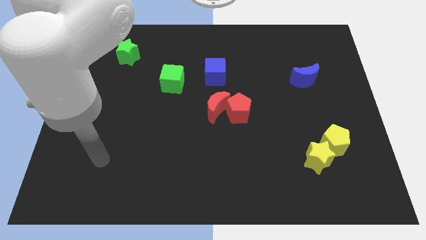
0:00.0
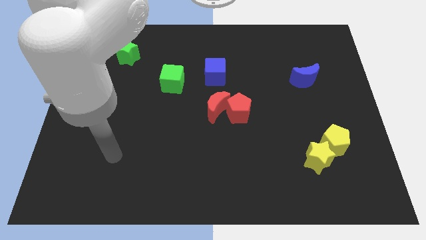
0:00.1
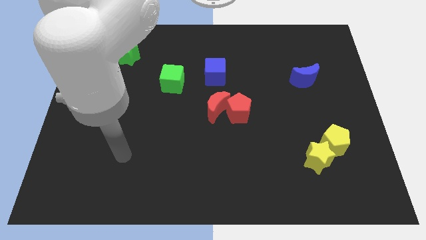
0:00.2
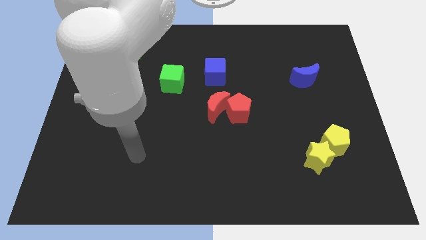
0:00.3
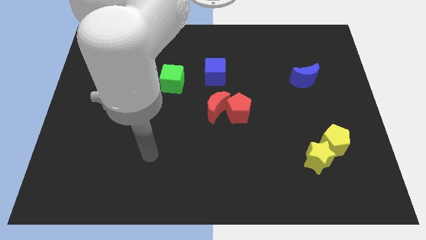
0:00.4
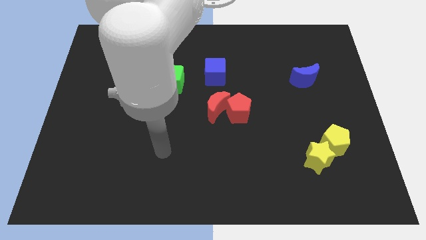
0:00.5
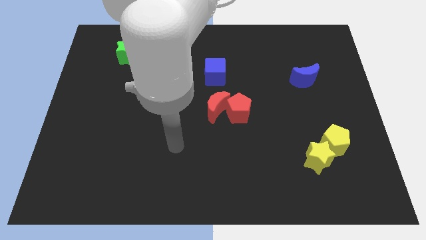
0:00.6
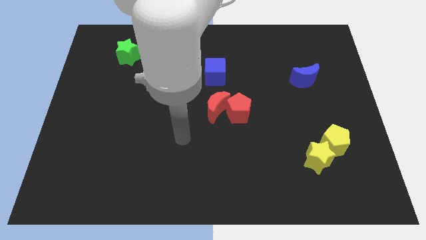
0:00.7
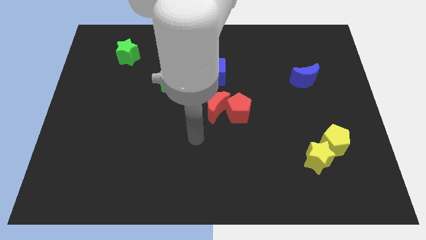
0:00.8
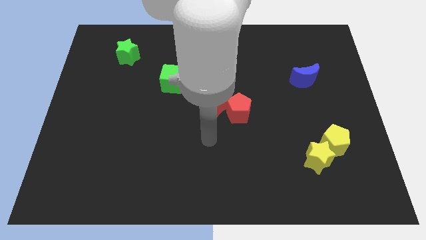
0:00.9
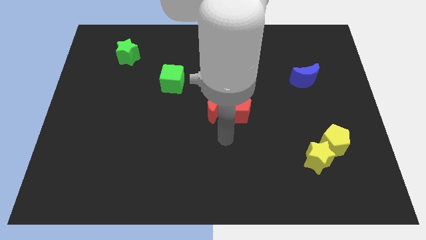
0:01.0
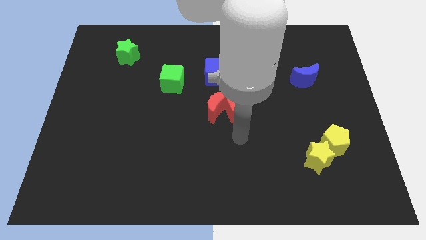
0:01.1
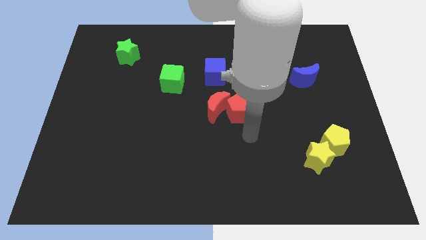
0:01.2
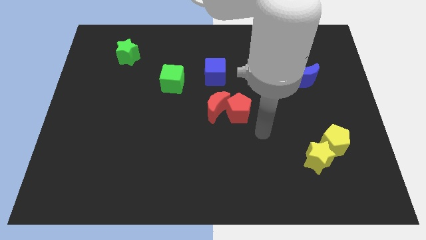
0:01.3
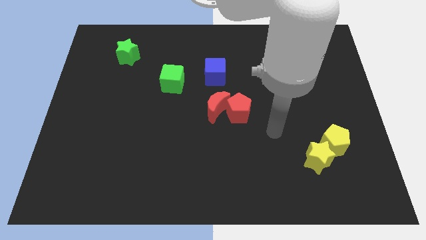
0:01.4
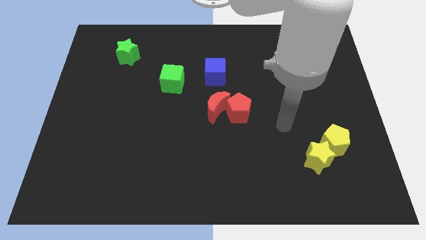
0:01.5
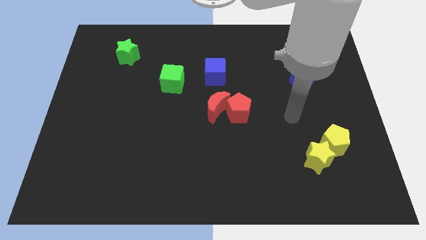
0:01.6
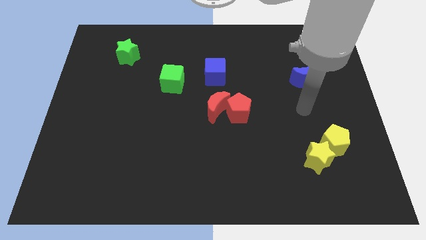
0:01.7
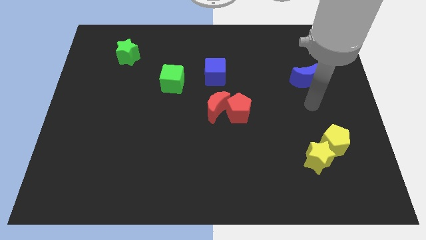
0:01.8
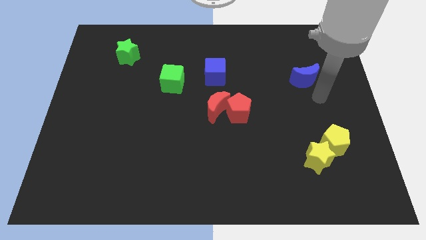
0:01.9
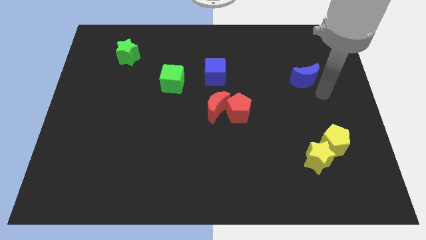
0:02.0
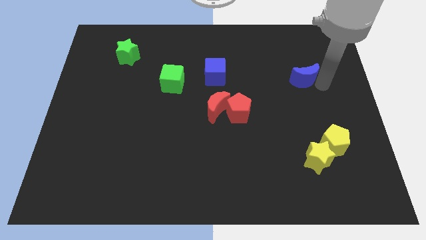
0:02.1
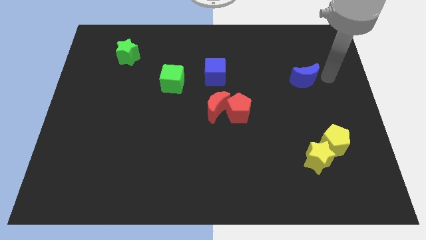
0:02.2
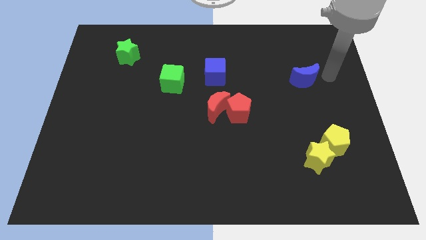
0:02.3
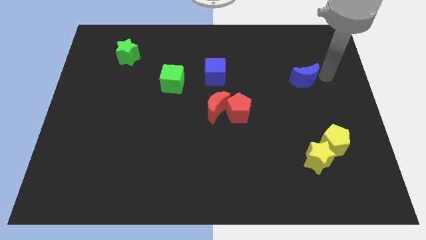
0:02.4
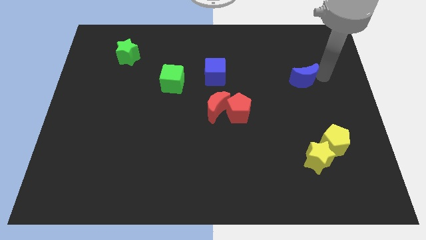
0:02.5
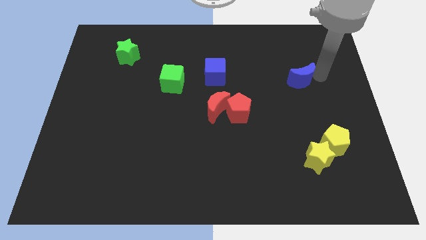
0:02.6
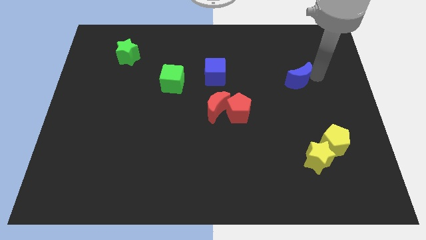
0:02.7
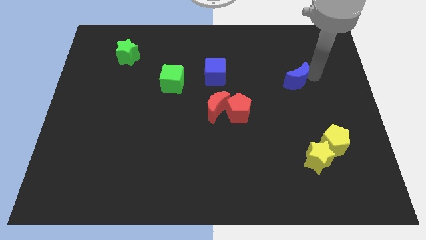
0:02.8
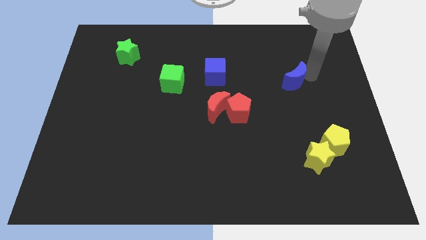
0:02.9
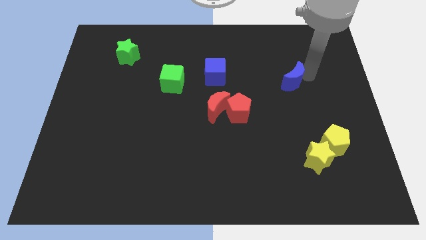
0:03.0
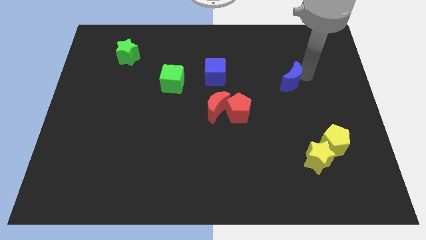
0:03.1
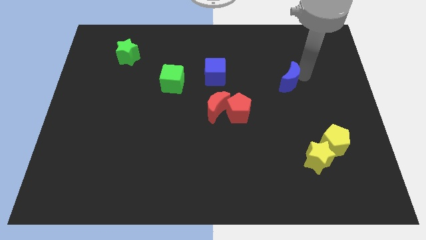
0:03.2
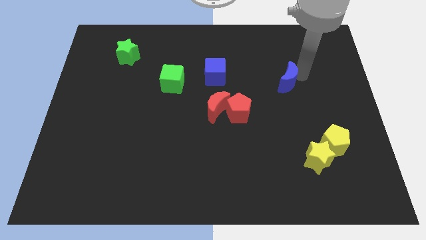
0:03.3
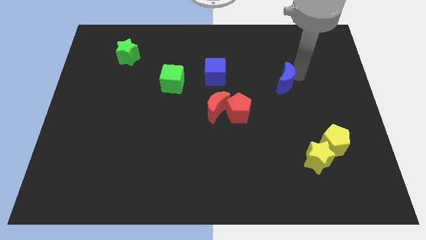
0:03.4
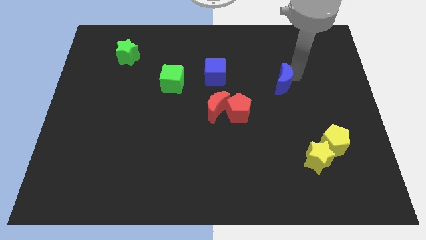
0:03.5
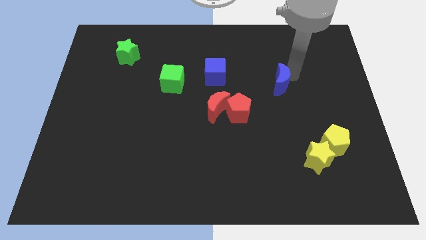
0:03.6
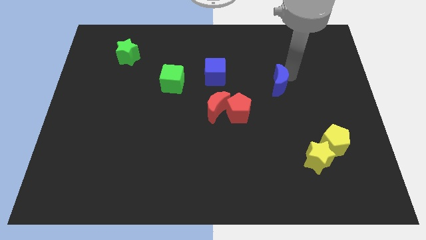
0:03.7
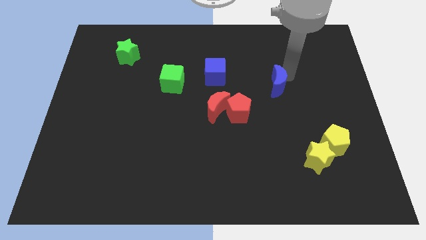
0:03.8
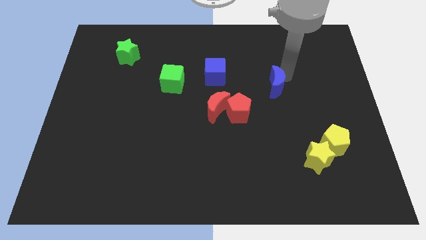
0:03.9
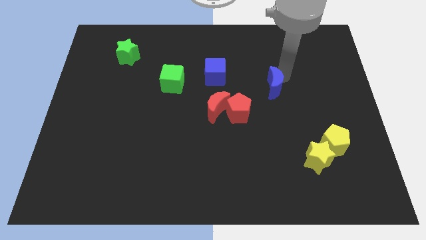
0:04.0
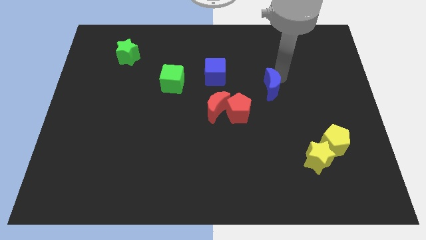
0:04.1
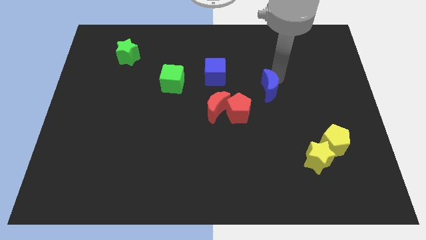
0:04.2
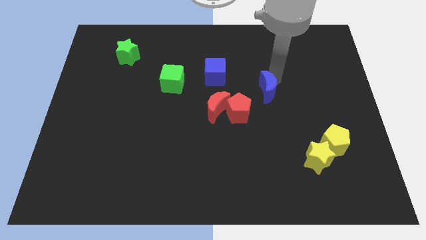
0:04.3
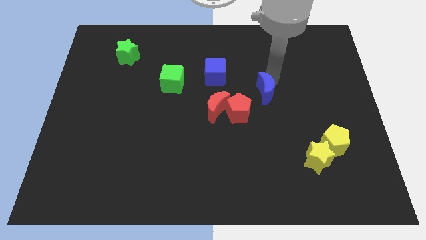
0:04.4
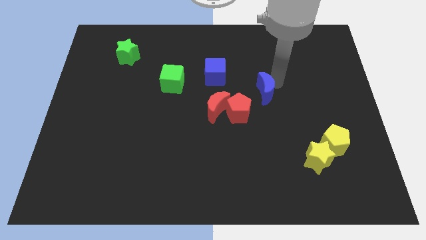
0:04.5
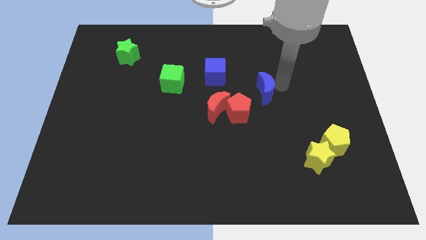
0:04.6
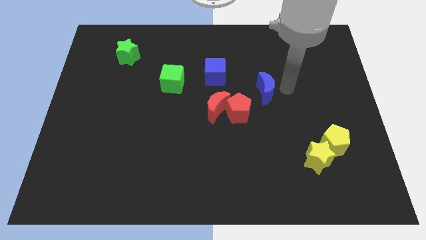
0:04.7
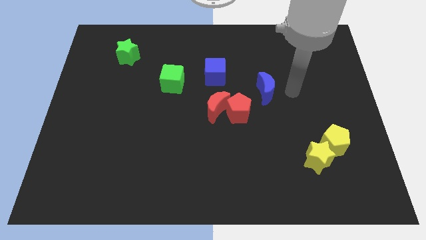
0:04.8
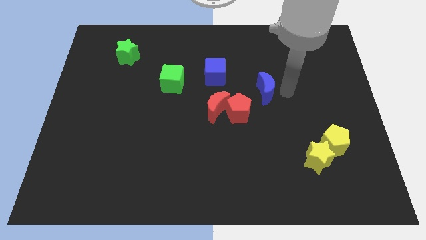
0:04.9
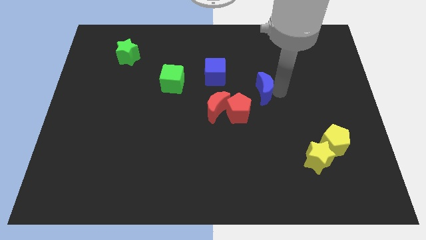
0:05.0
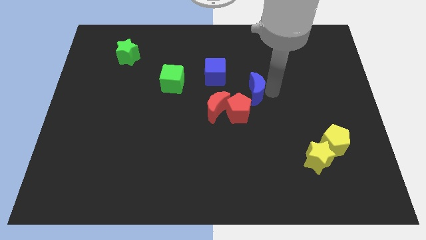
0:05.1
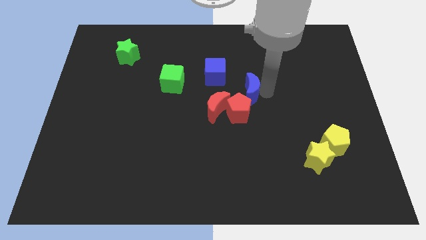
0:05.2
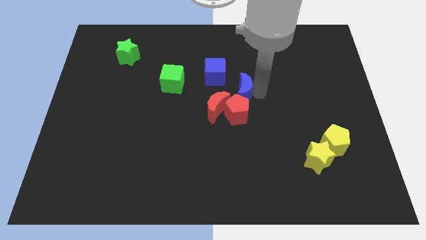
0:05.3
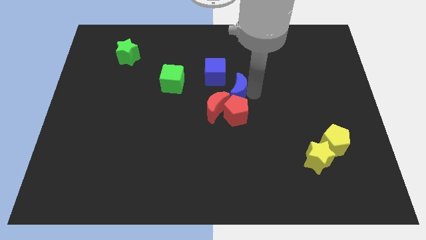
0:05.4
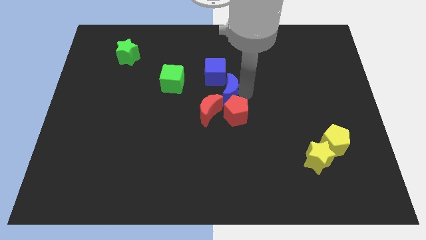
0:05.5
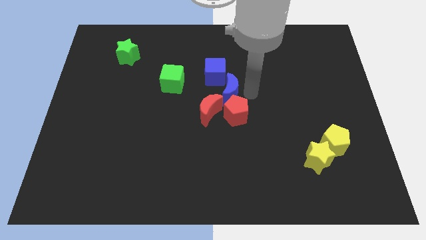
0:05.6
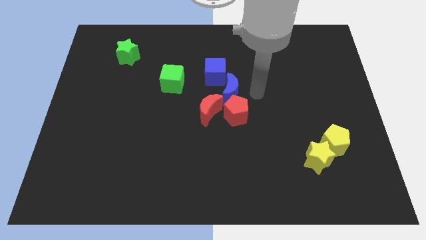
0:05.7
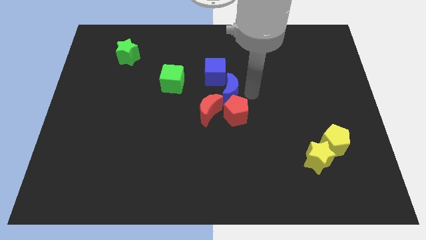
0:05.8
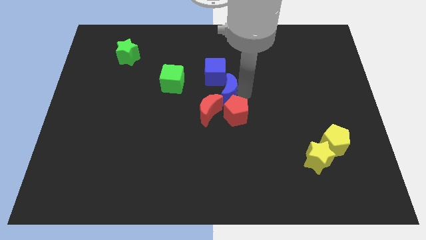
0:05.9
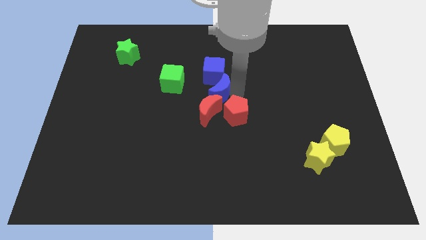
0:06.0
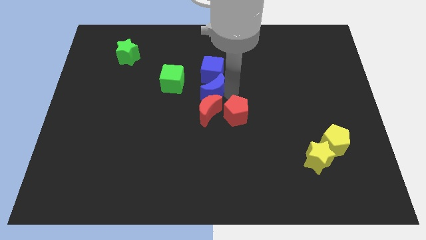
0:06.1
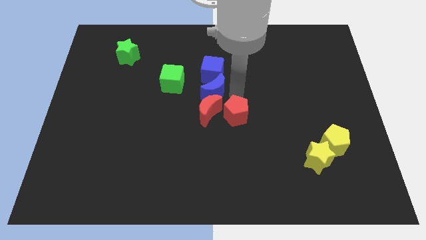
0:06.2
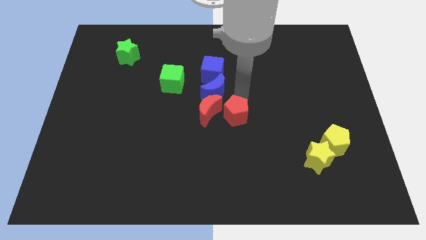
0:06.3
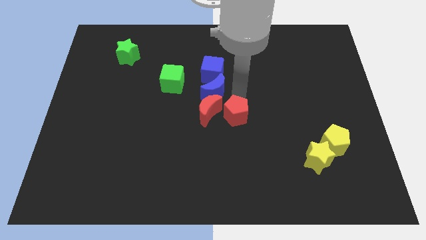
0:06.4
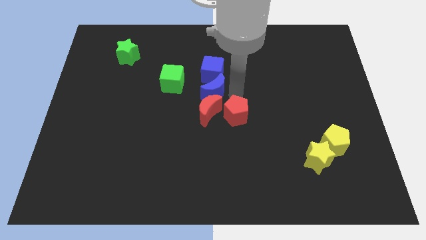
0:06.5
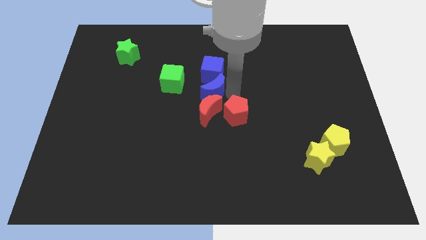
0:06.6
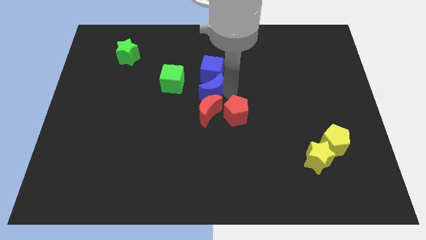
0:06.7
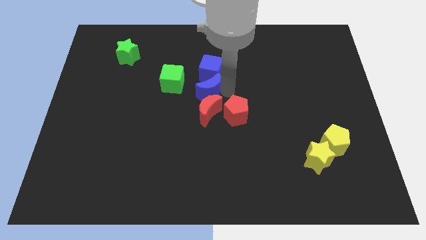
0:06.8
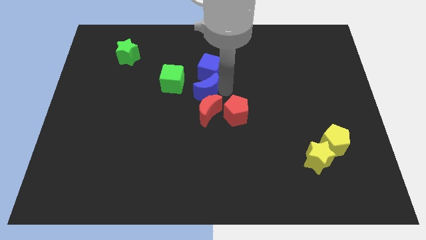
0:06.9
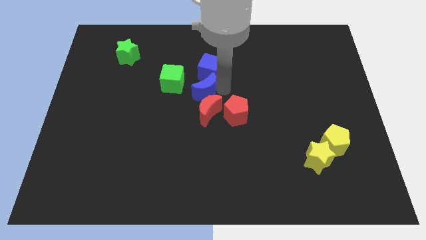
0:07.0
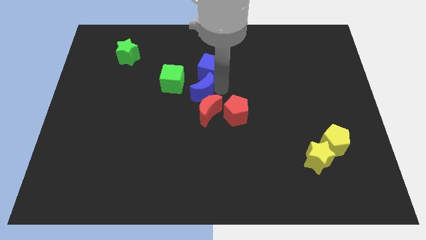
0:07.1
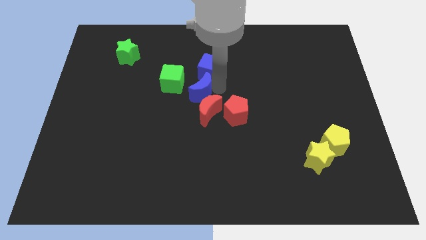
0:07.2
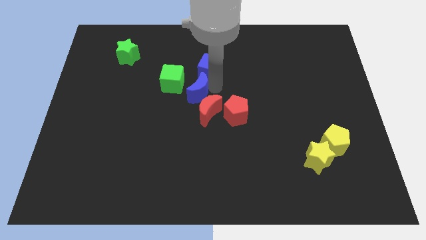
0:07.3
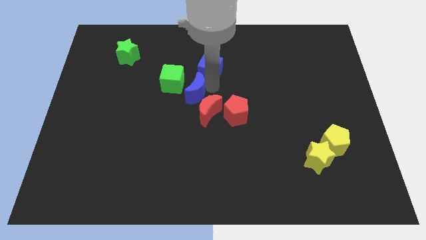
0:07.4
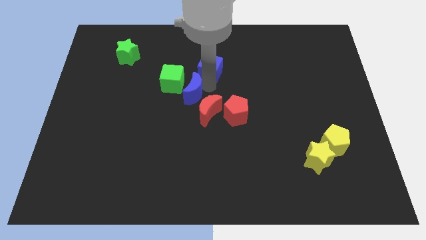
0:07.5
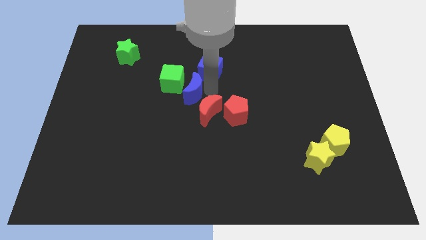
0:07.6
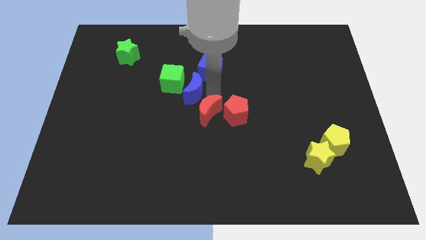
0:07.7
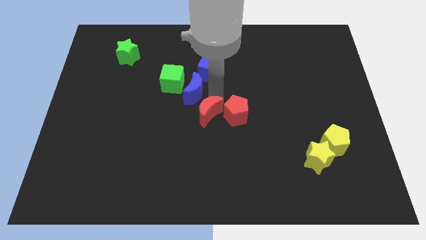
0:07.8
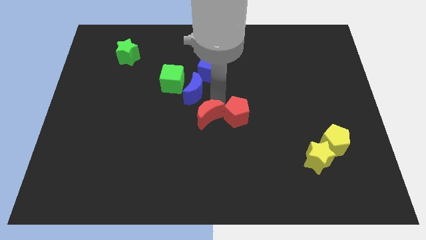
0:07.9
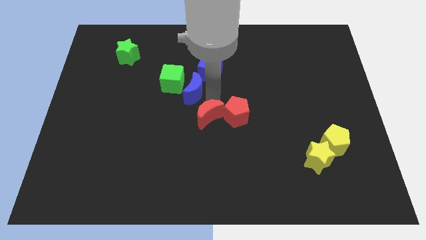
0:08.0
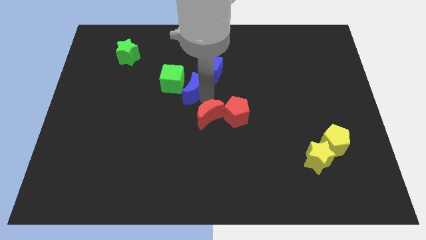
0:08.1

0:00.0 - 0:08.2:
slide the blue moon next to the green cube
